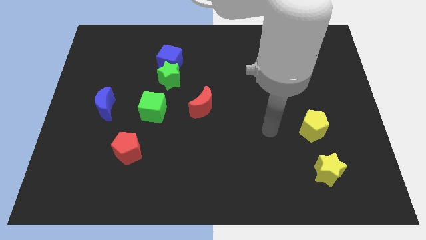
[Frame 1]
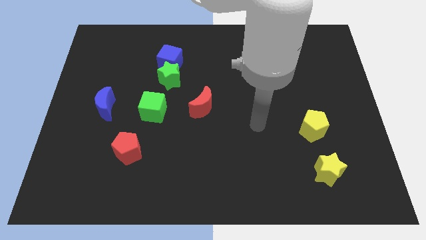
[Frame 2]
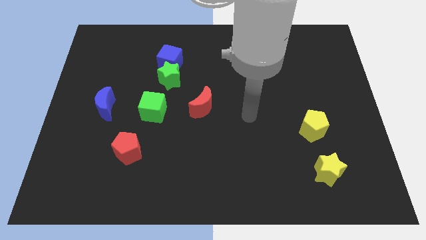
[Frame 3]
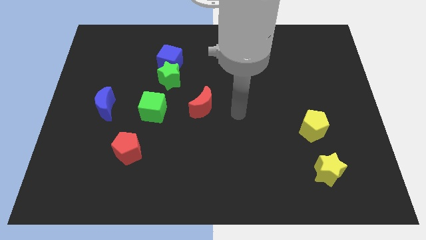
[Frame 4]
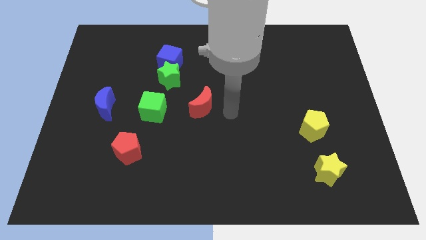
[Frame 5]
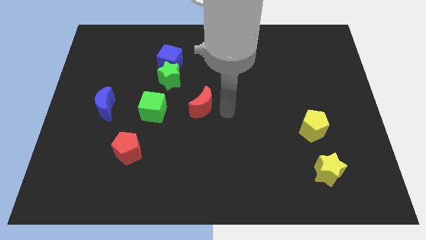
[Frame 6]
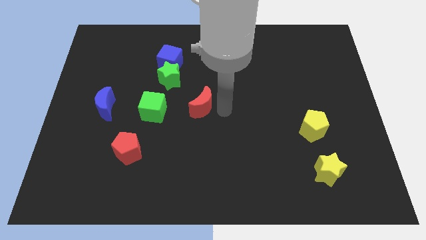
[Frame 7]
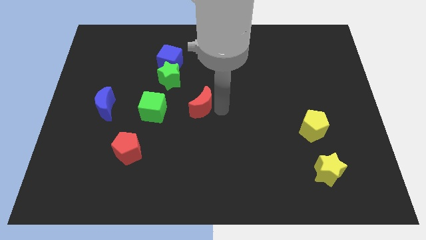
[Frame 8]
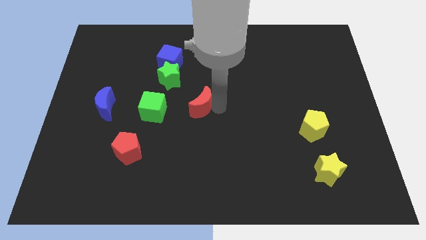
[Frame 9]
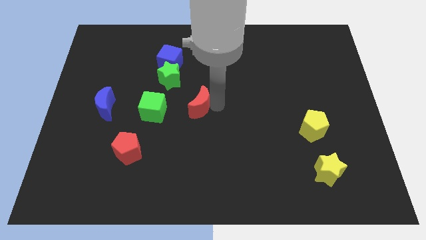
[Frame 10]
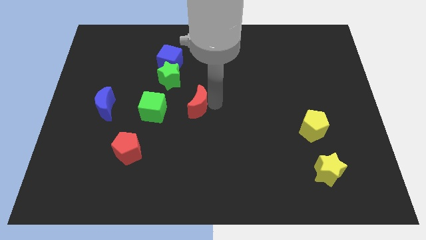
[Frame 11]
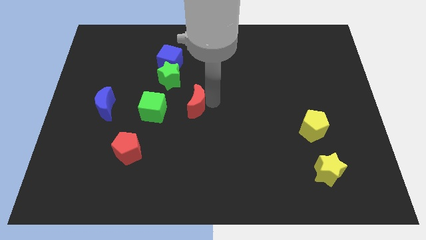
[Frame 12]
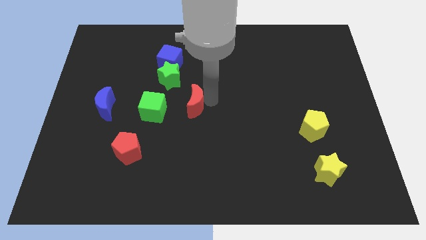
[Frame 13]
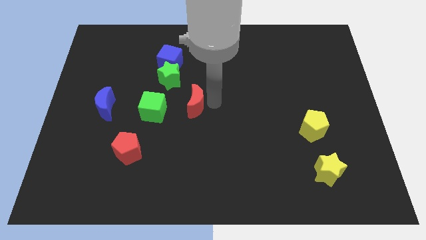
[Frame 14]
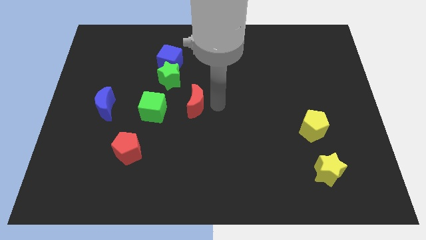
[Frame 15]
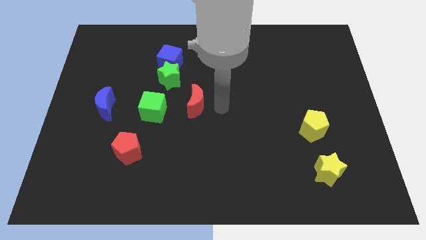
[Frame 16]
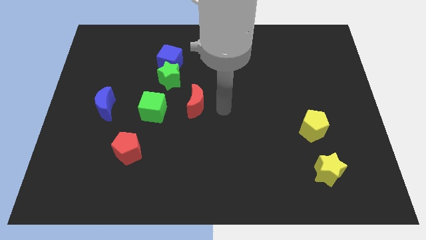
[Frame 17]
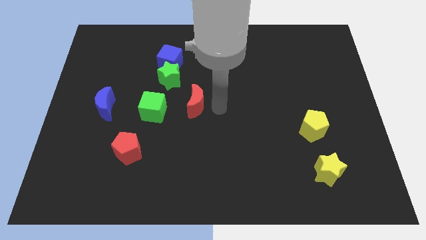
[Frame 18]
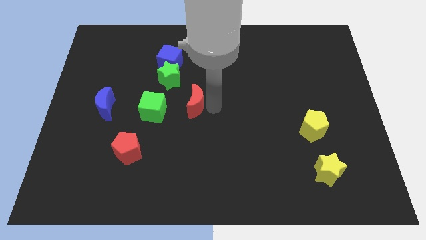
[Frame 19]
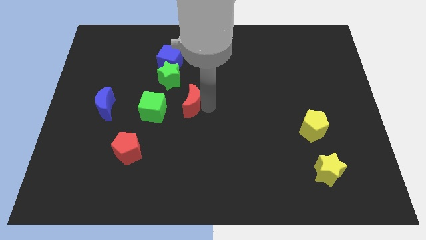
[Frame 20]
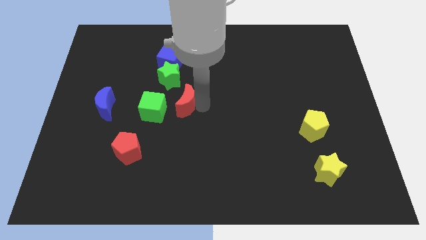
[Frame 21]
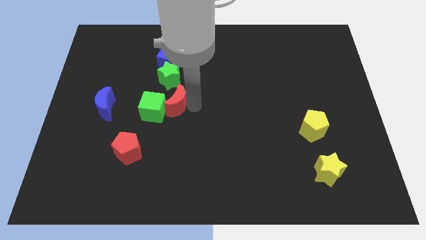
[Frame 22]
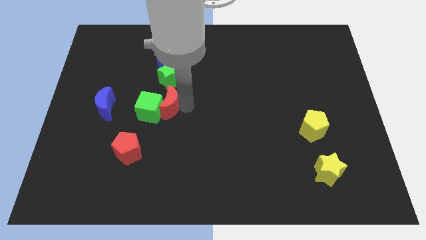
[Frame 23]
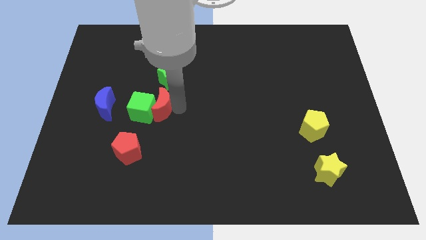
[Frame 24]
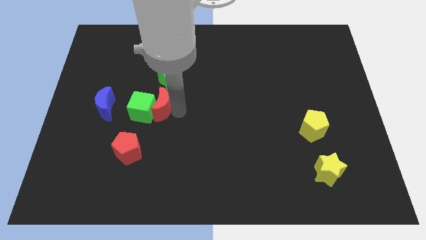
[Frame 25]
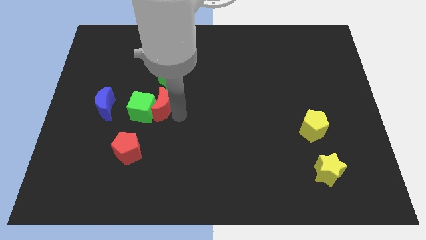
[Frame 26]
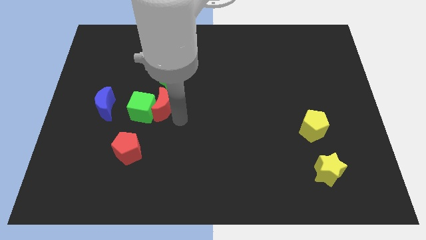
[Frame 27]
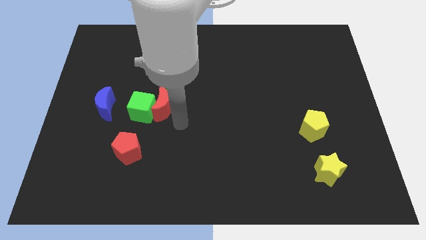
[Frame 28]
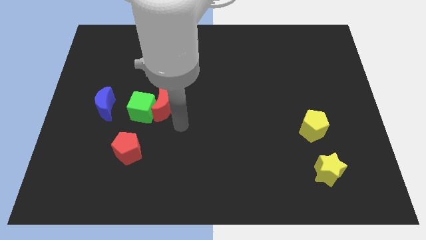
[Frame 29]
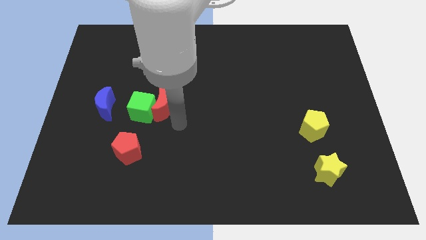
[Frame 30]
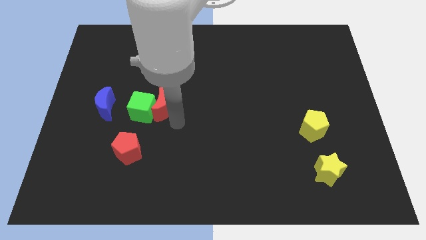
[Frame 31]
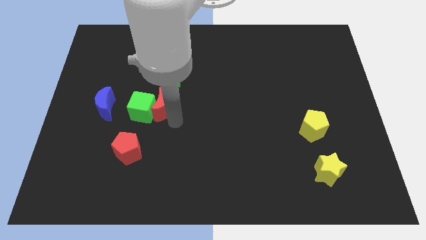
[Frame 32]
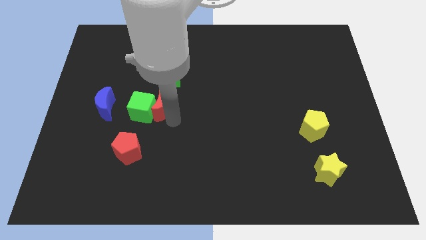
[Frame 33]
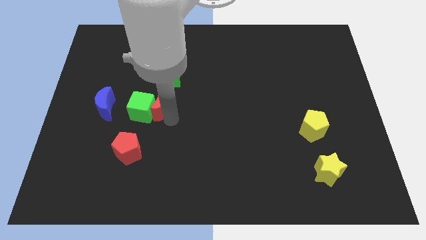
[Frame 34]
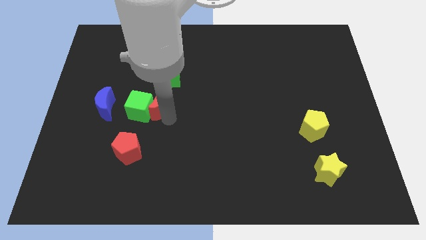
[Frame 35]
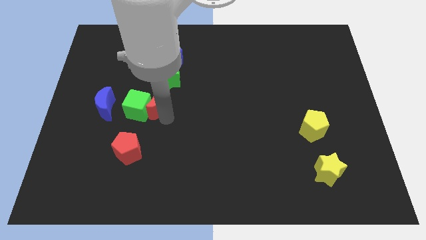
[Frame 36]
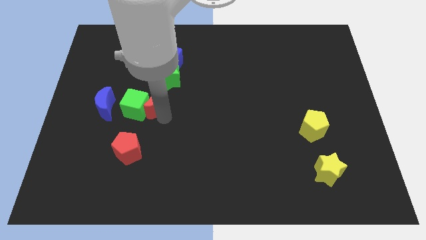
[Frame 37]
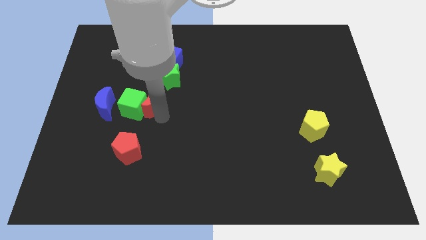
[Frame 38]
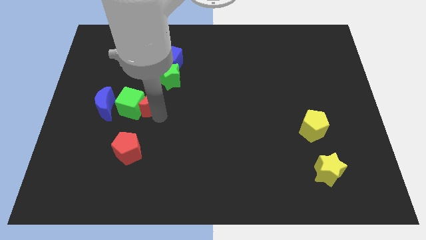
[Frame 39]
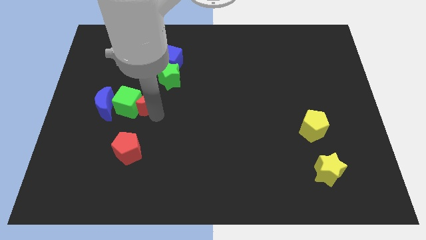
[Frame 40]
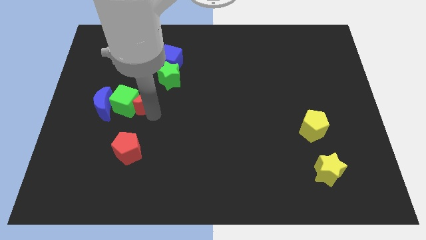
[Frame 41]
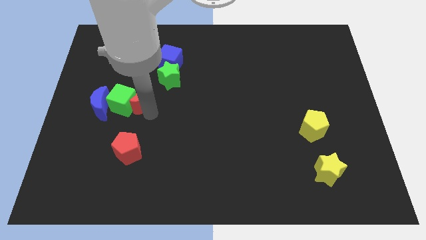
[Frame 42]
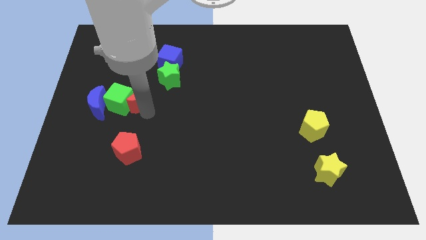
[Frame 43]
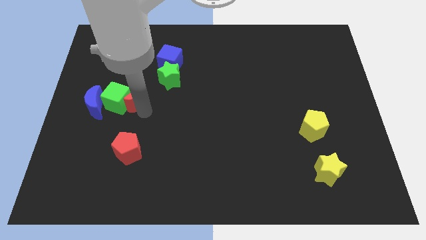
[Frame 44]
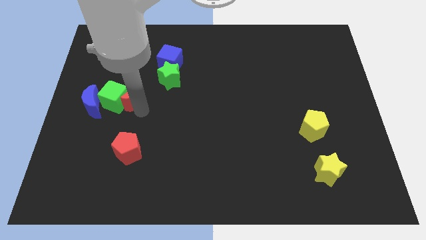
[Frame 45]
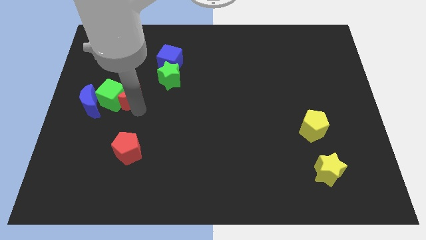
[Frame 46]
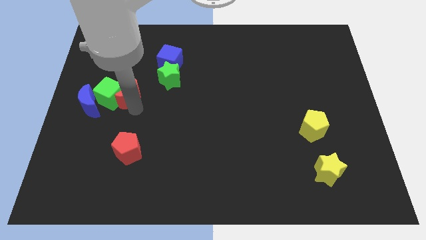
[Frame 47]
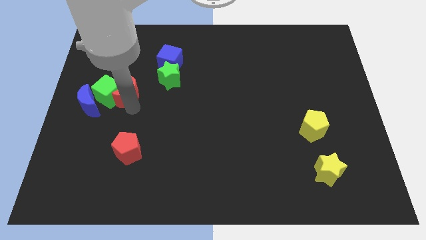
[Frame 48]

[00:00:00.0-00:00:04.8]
put the red moon to the top right side of the blue moon

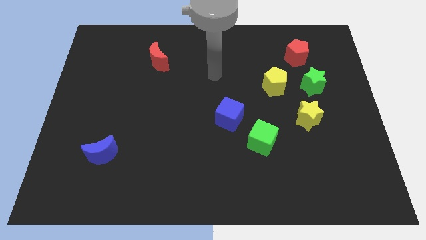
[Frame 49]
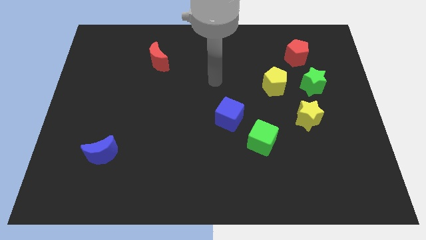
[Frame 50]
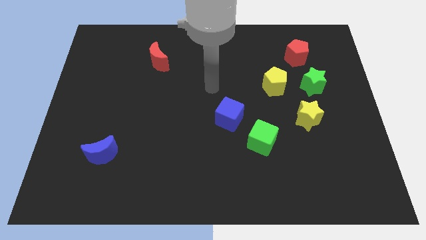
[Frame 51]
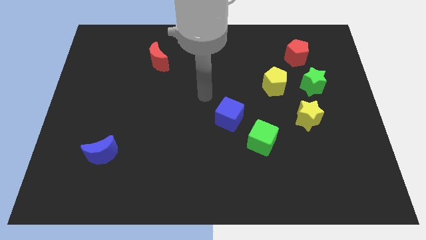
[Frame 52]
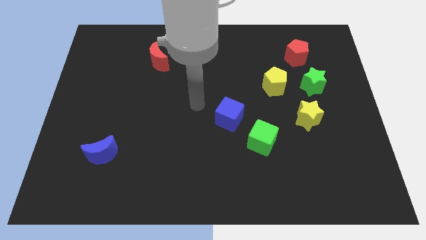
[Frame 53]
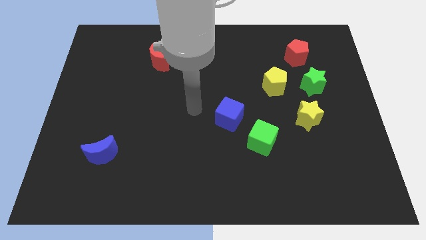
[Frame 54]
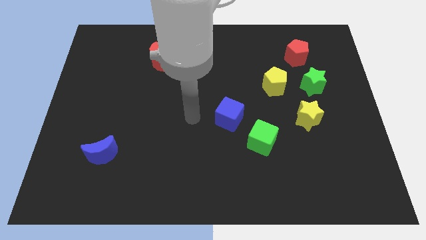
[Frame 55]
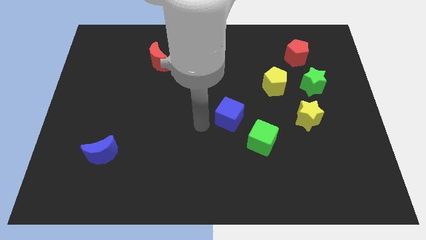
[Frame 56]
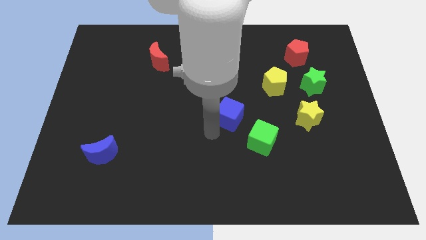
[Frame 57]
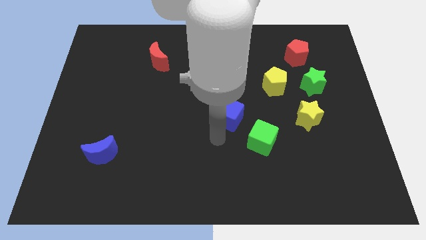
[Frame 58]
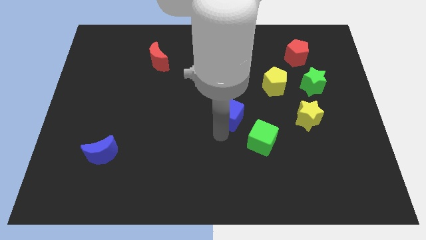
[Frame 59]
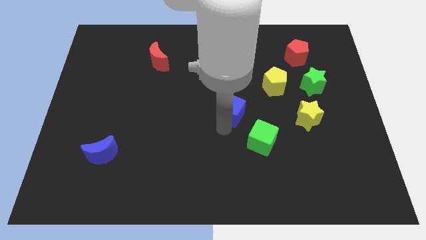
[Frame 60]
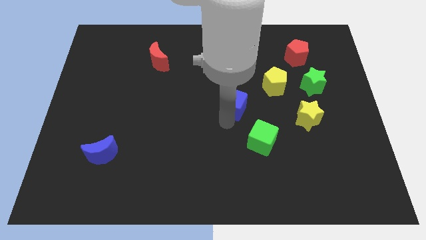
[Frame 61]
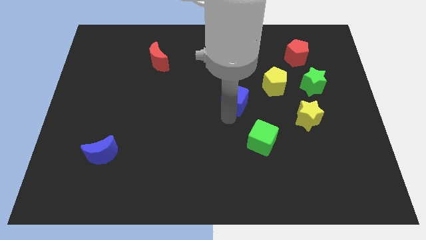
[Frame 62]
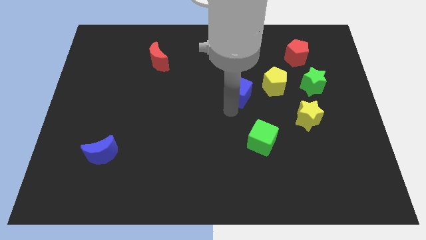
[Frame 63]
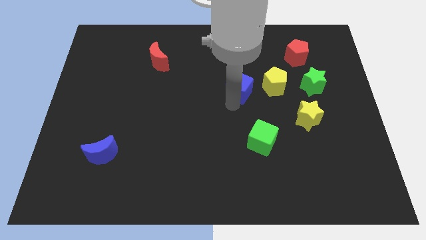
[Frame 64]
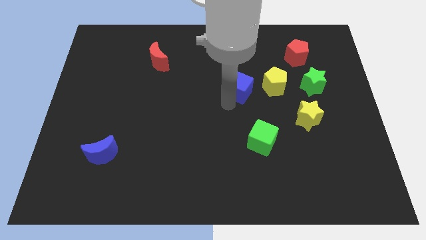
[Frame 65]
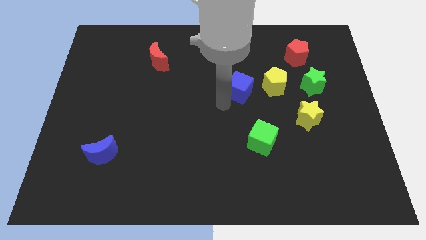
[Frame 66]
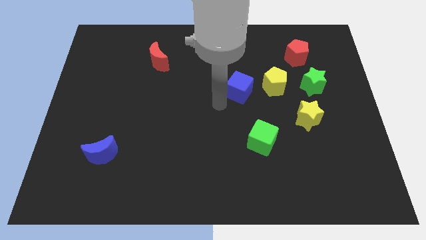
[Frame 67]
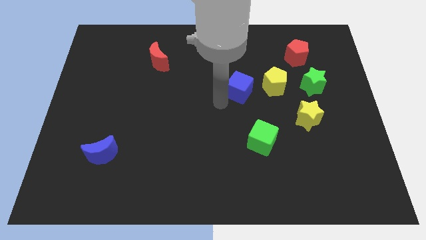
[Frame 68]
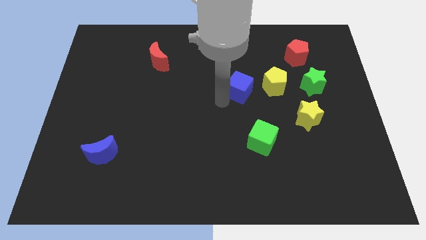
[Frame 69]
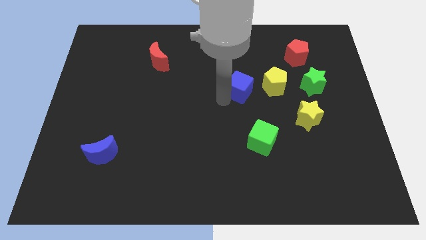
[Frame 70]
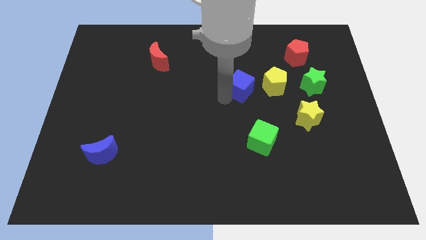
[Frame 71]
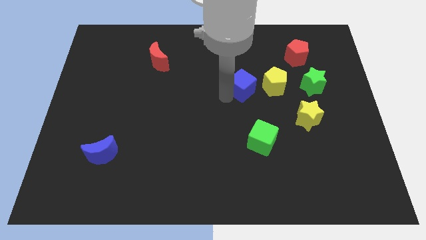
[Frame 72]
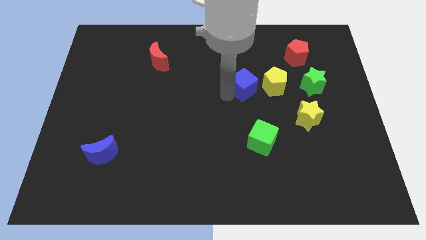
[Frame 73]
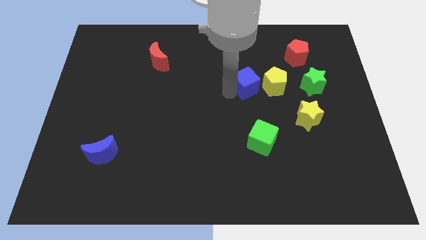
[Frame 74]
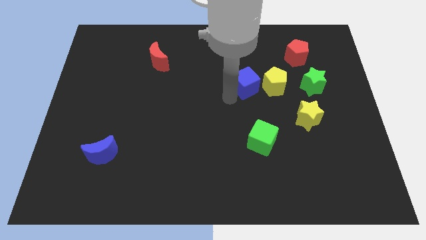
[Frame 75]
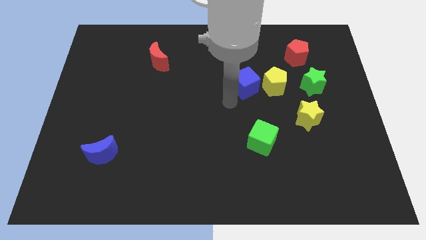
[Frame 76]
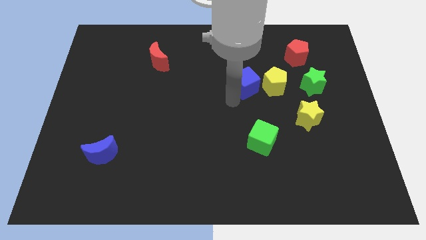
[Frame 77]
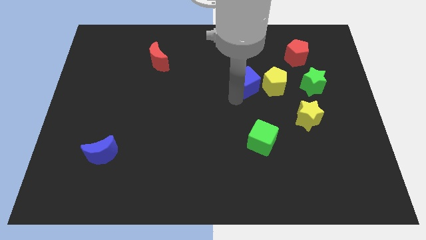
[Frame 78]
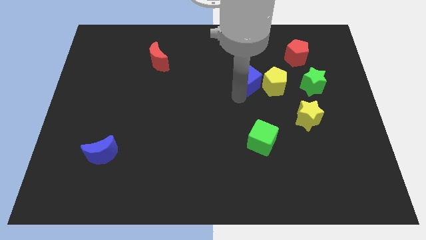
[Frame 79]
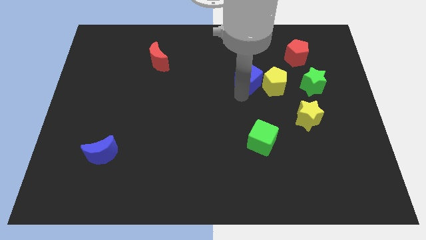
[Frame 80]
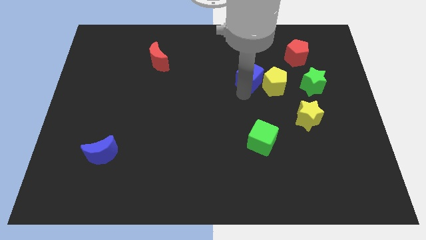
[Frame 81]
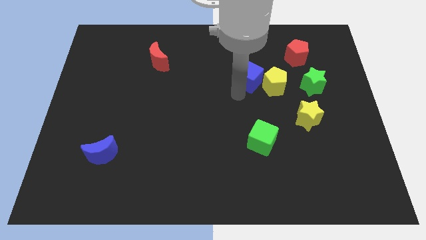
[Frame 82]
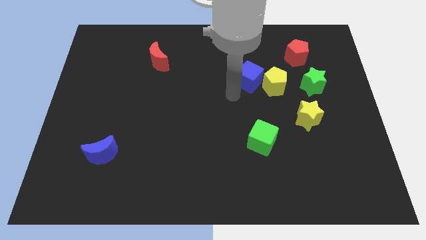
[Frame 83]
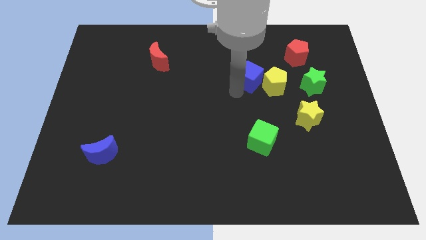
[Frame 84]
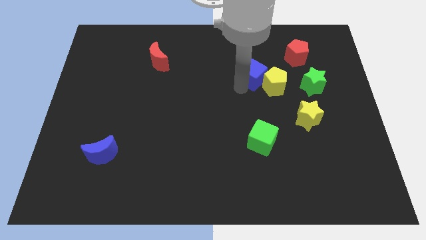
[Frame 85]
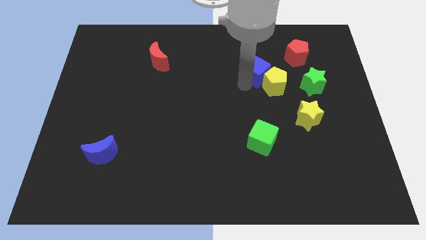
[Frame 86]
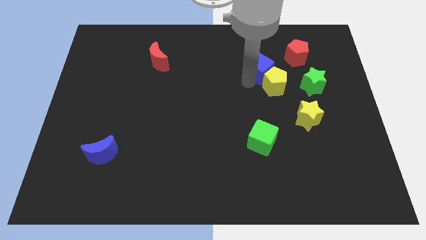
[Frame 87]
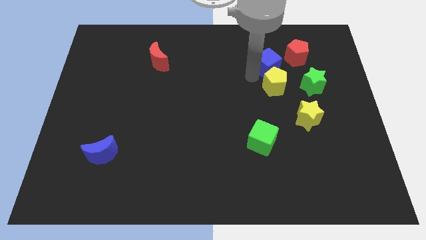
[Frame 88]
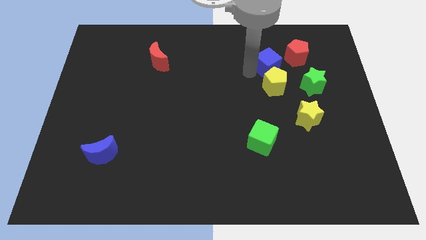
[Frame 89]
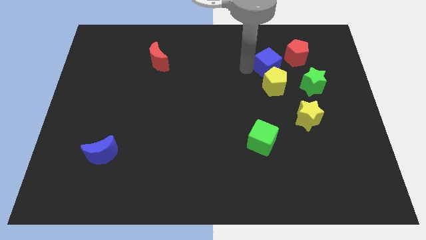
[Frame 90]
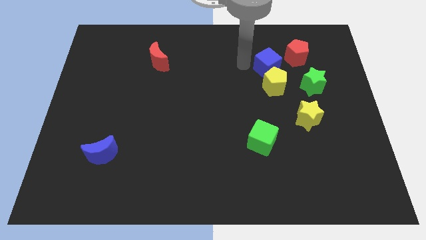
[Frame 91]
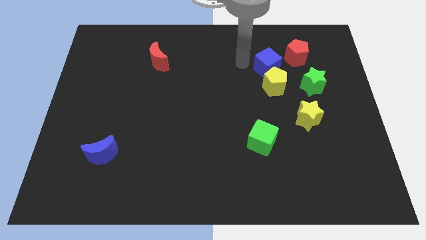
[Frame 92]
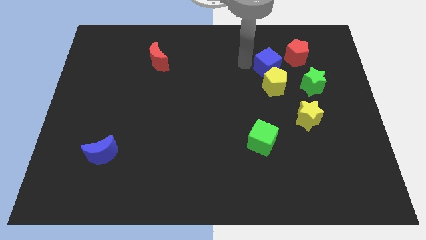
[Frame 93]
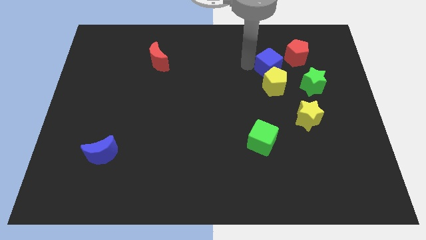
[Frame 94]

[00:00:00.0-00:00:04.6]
put the blue cube diagonally up and to the left of the green star
